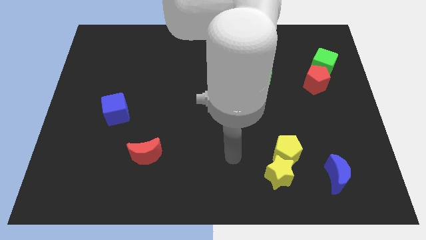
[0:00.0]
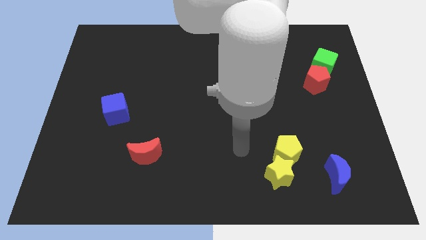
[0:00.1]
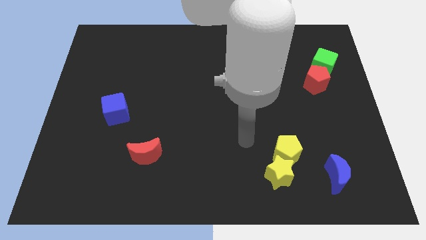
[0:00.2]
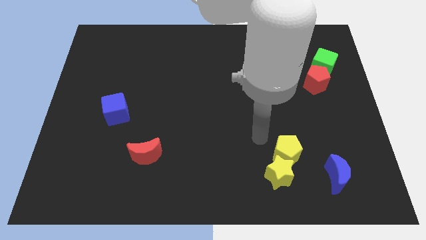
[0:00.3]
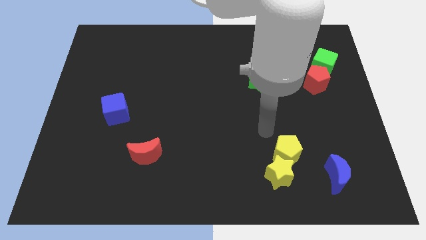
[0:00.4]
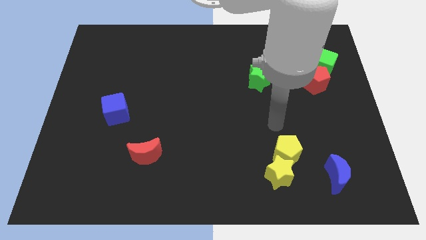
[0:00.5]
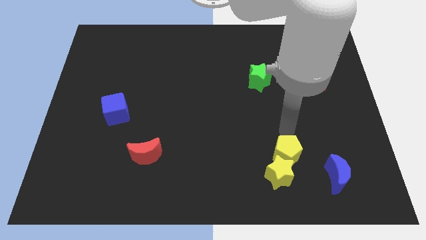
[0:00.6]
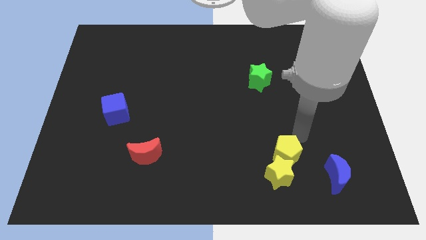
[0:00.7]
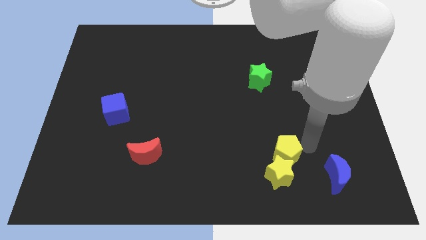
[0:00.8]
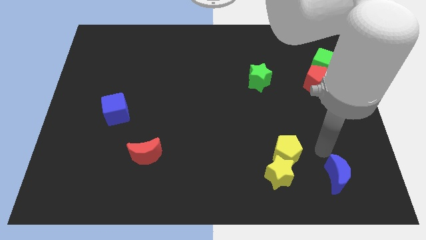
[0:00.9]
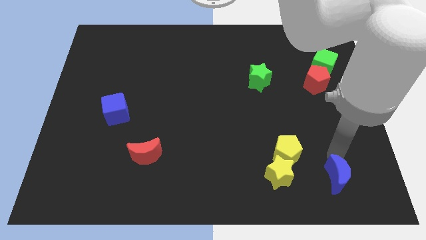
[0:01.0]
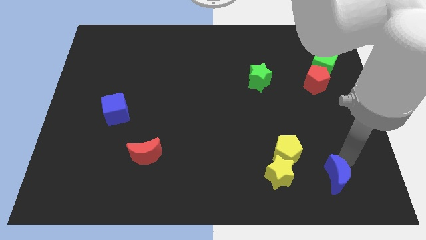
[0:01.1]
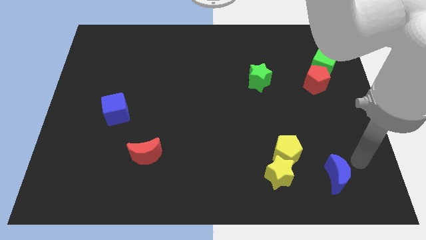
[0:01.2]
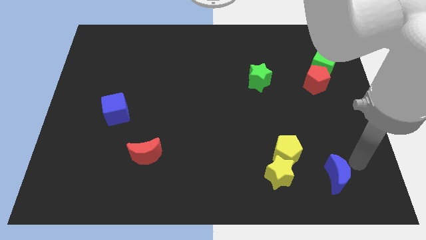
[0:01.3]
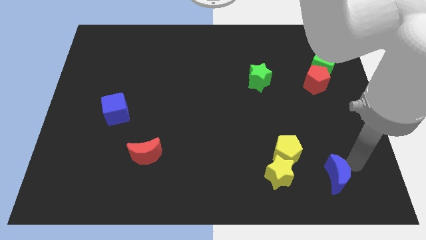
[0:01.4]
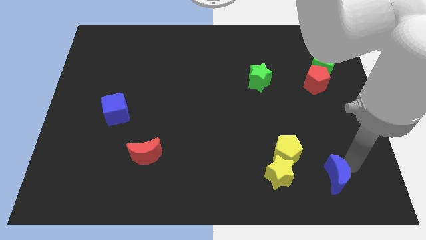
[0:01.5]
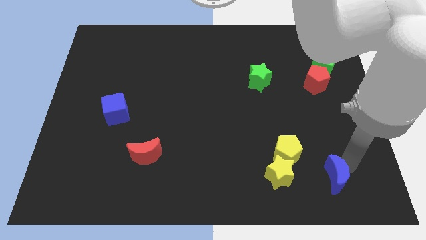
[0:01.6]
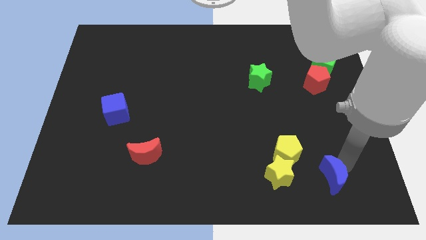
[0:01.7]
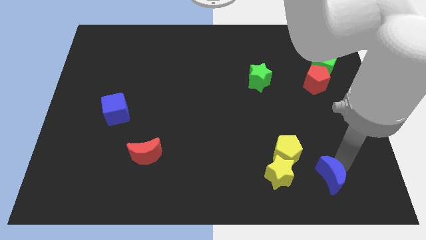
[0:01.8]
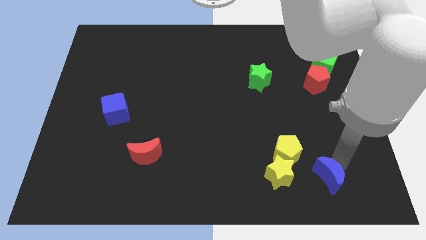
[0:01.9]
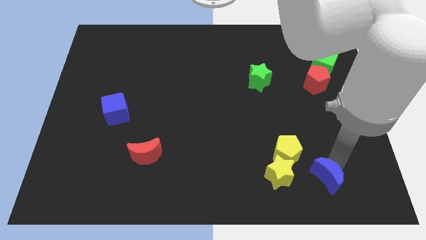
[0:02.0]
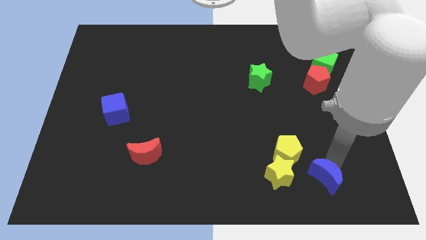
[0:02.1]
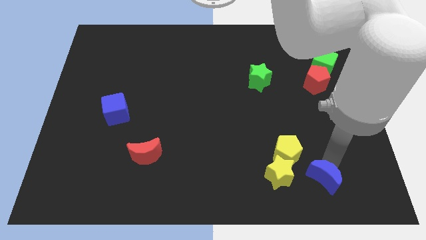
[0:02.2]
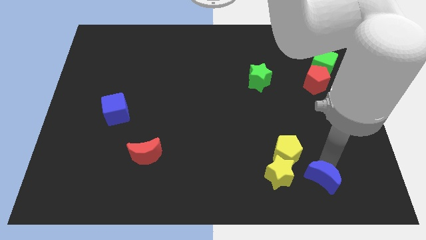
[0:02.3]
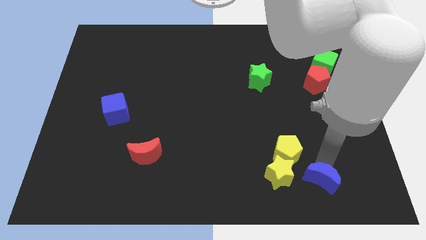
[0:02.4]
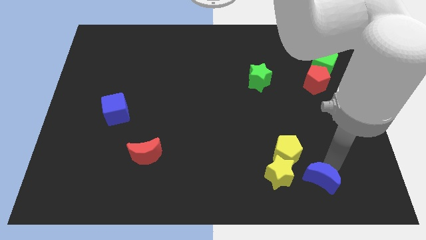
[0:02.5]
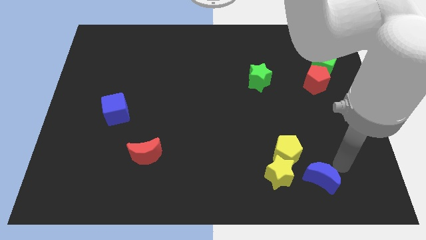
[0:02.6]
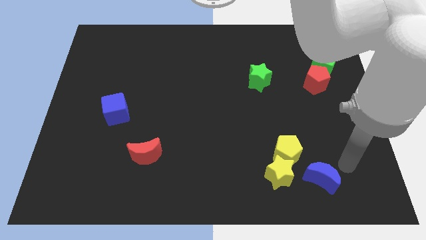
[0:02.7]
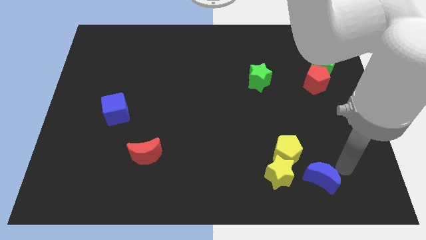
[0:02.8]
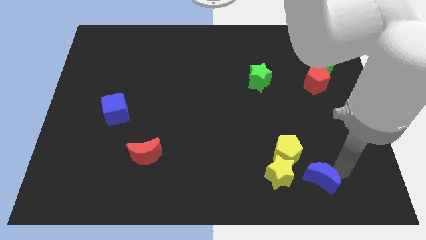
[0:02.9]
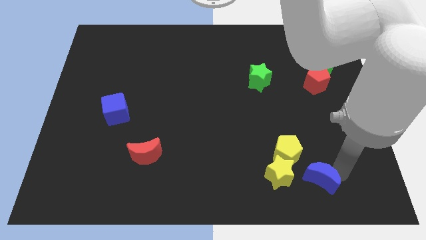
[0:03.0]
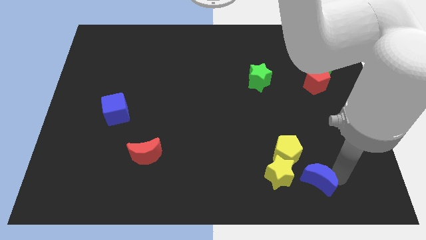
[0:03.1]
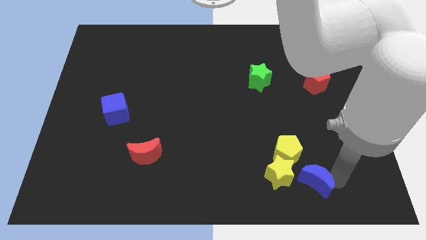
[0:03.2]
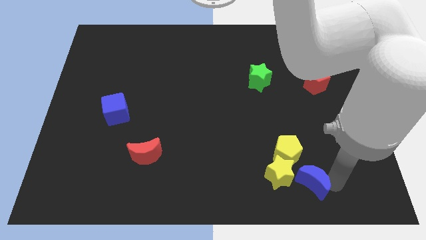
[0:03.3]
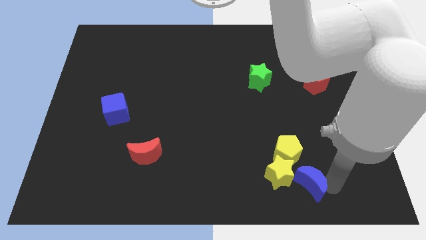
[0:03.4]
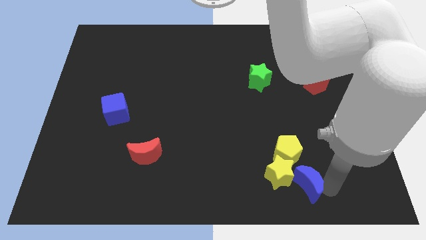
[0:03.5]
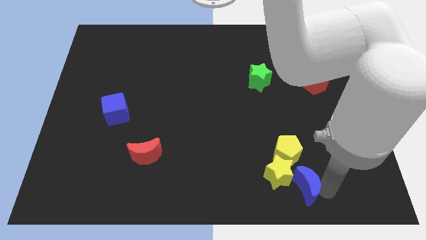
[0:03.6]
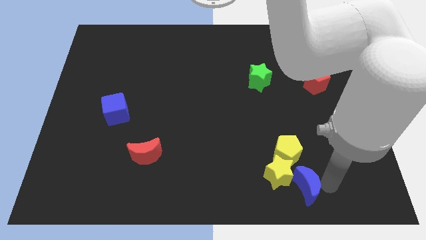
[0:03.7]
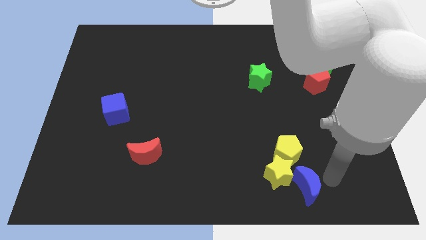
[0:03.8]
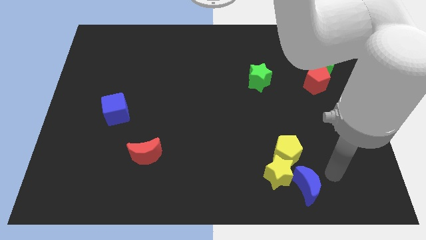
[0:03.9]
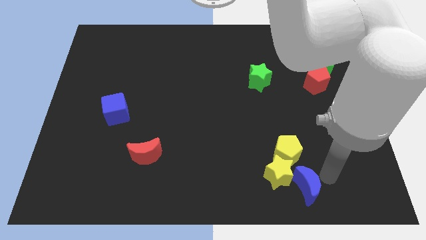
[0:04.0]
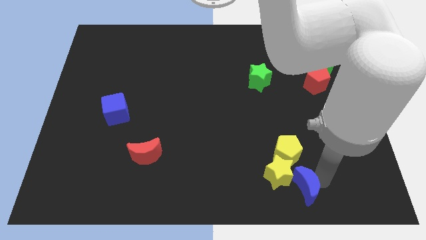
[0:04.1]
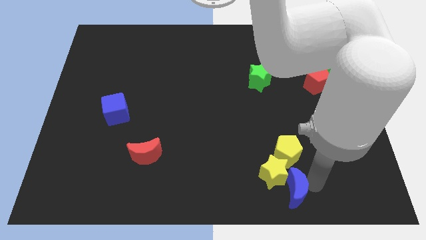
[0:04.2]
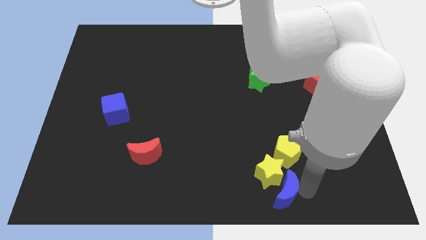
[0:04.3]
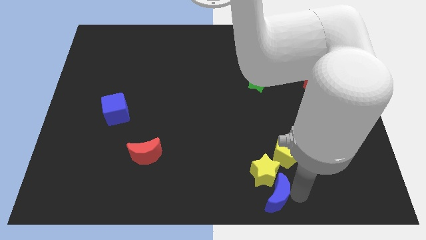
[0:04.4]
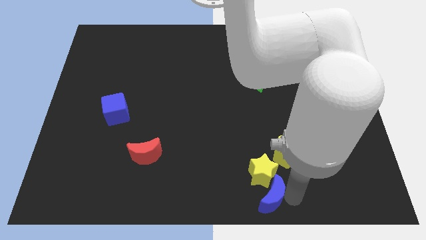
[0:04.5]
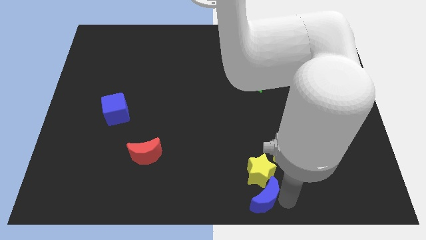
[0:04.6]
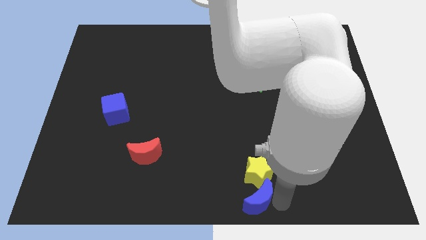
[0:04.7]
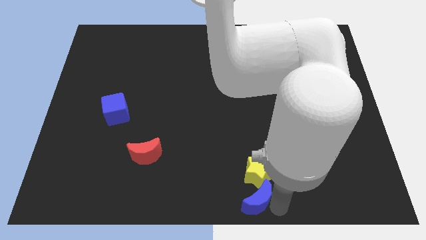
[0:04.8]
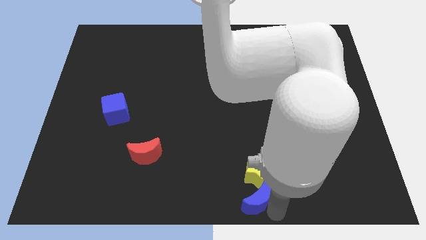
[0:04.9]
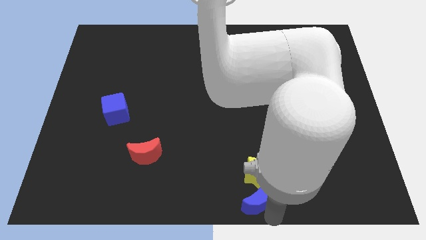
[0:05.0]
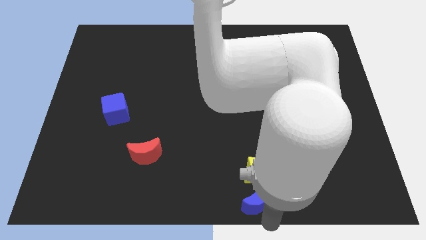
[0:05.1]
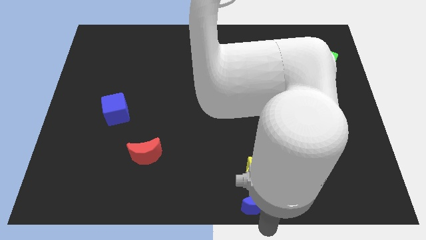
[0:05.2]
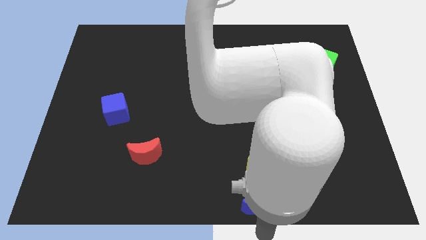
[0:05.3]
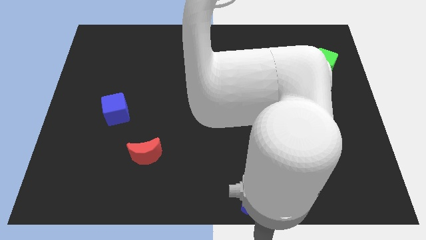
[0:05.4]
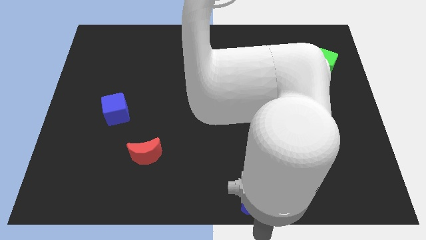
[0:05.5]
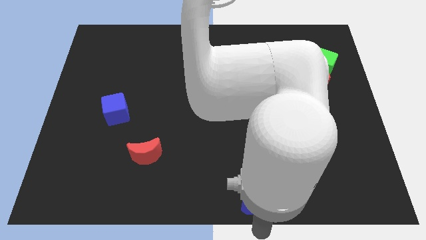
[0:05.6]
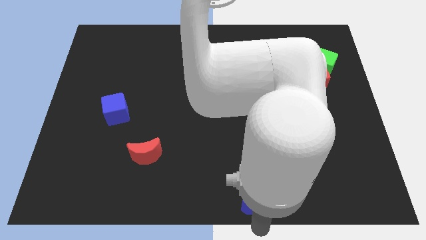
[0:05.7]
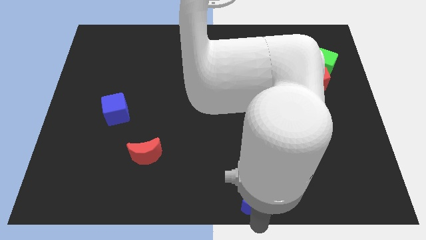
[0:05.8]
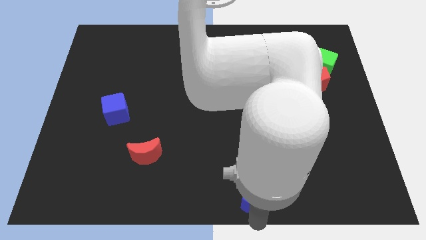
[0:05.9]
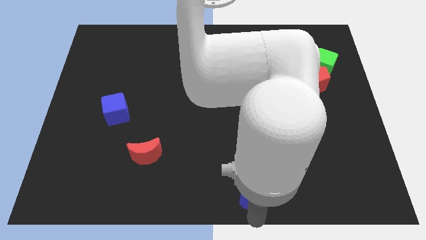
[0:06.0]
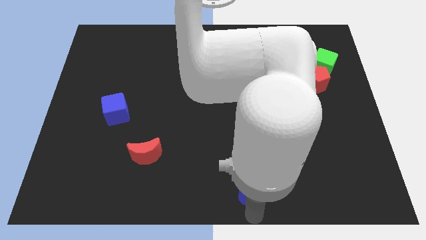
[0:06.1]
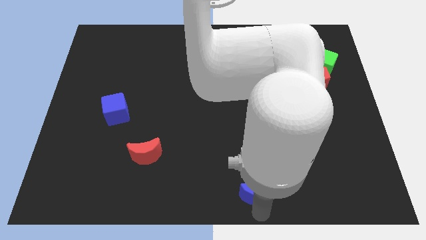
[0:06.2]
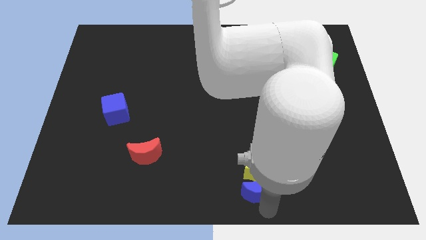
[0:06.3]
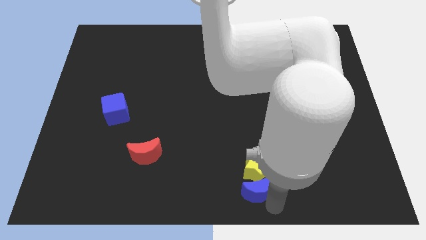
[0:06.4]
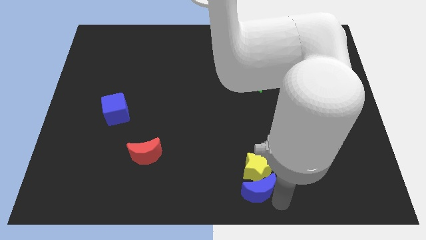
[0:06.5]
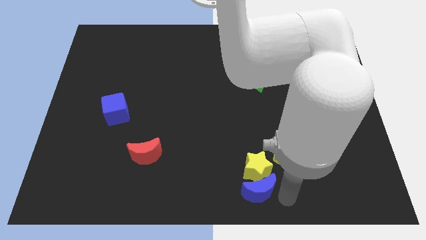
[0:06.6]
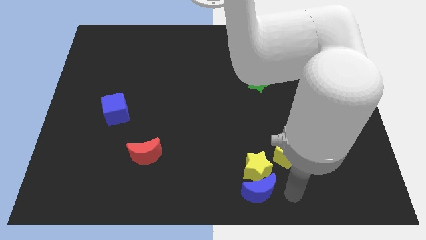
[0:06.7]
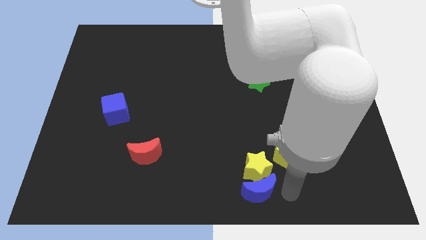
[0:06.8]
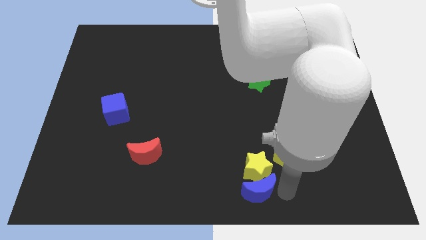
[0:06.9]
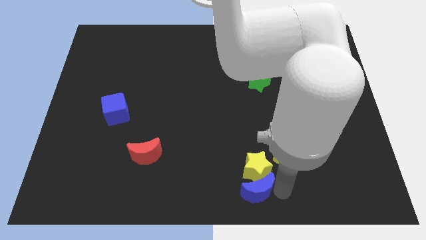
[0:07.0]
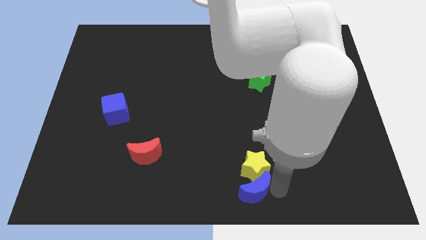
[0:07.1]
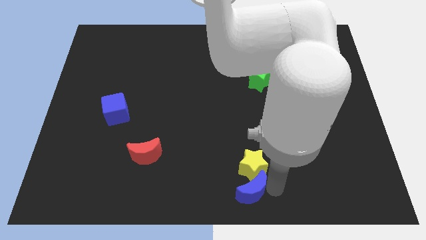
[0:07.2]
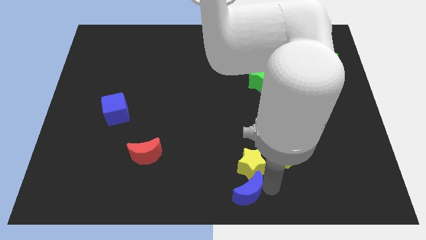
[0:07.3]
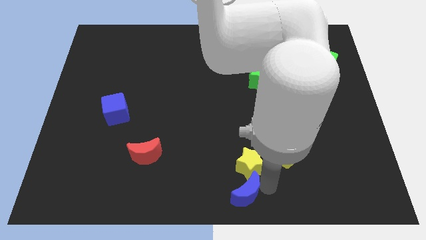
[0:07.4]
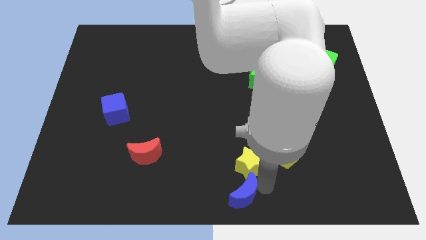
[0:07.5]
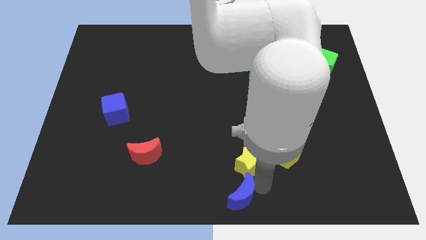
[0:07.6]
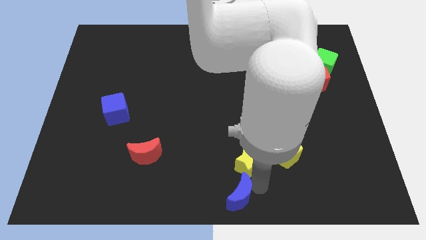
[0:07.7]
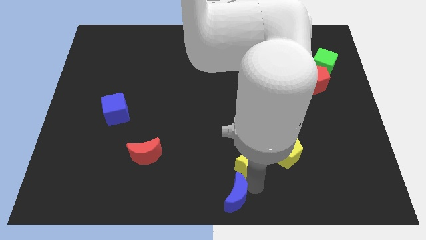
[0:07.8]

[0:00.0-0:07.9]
move the blue moon left

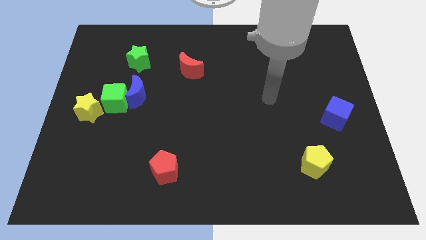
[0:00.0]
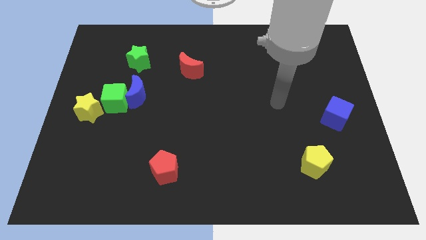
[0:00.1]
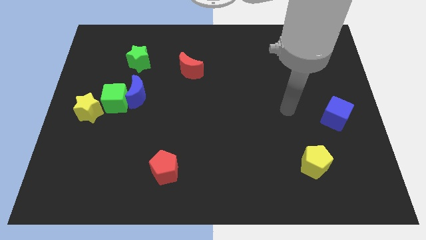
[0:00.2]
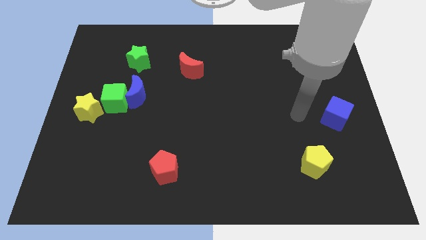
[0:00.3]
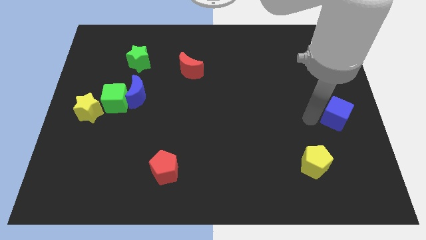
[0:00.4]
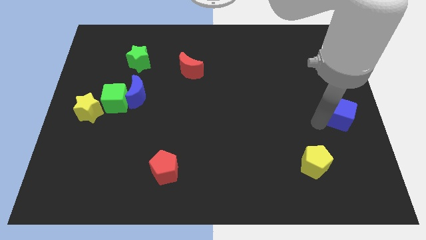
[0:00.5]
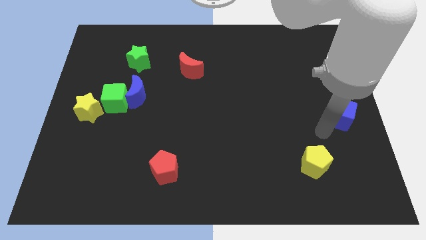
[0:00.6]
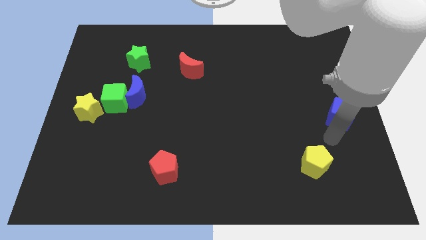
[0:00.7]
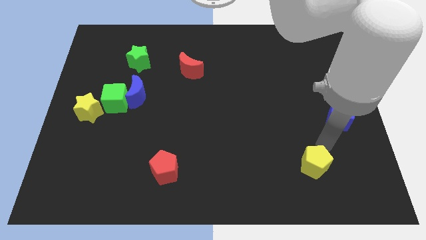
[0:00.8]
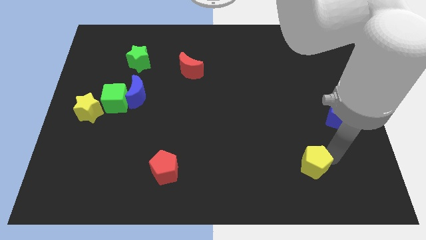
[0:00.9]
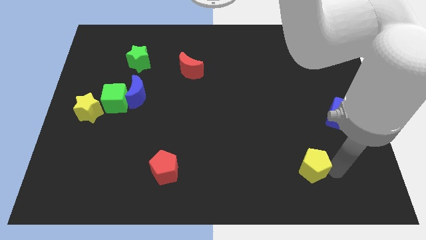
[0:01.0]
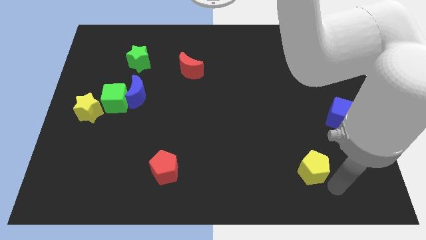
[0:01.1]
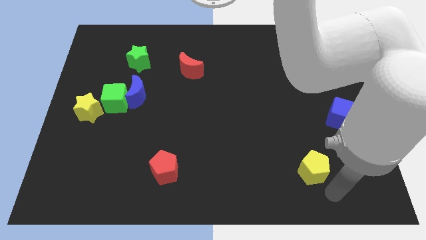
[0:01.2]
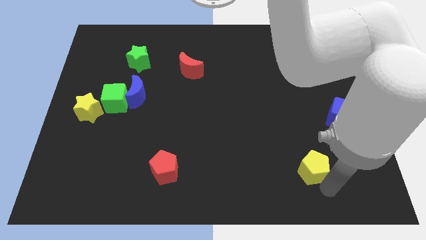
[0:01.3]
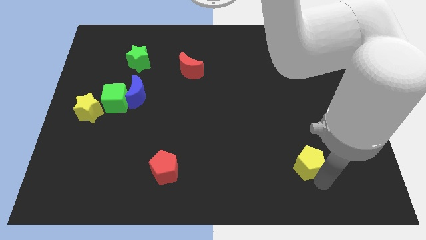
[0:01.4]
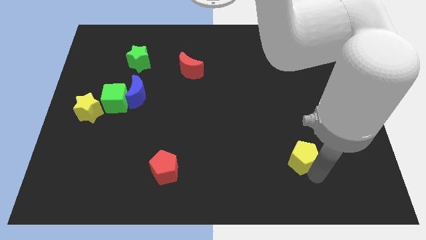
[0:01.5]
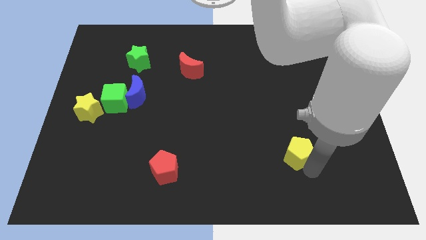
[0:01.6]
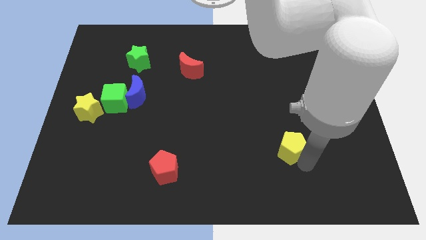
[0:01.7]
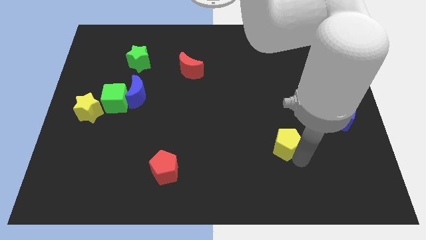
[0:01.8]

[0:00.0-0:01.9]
move the yellow pentagon diagonally upwards and to the left a little
